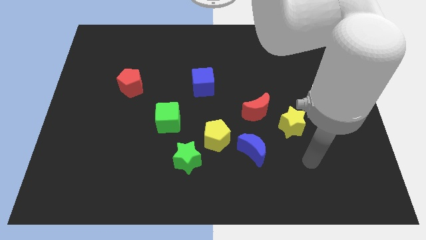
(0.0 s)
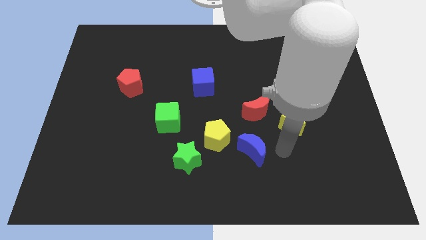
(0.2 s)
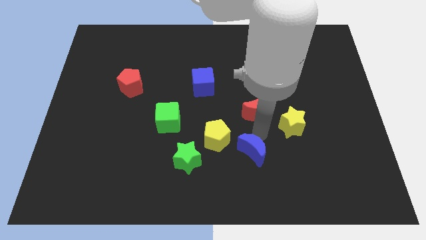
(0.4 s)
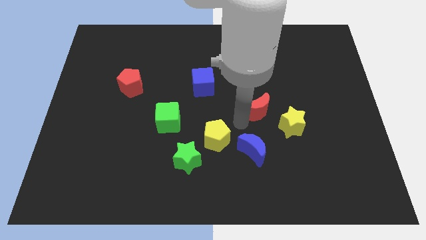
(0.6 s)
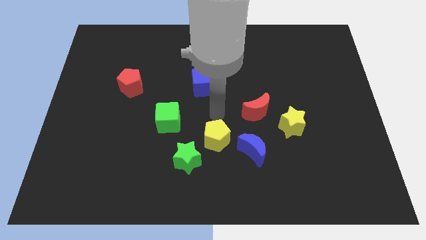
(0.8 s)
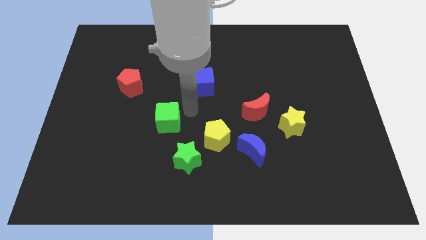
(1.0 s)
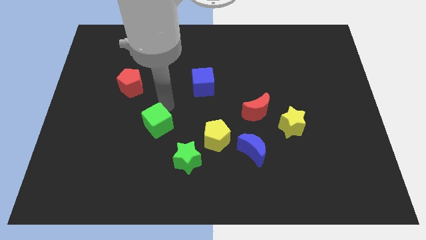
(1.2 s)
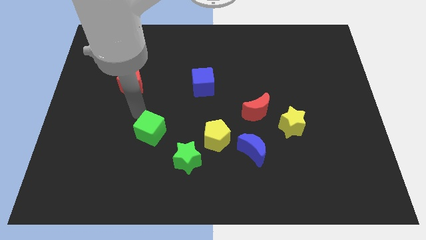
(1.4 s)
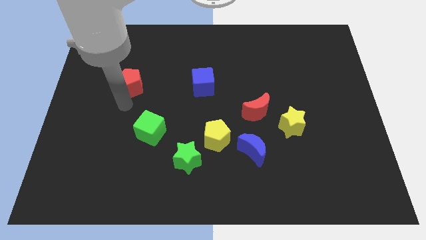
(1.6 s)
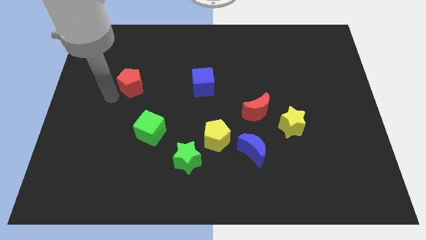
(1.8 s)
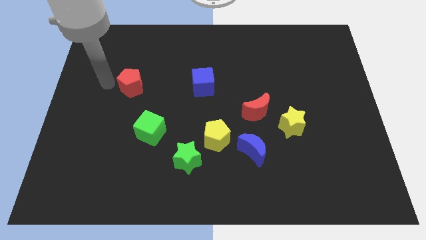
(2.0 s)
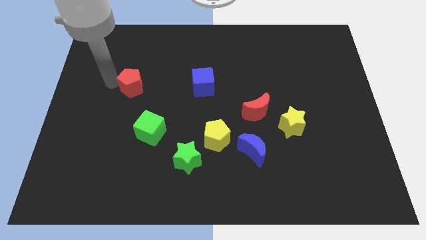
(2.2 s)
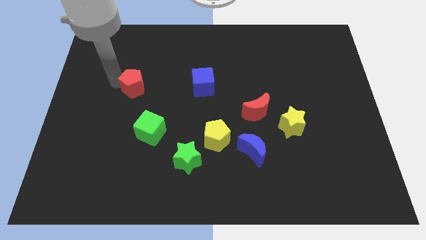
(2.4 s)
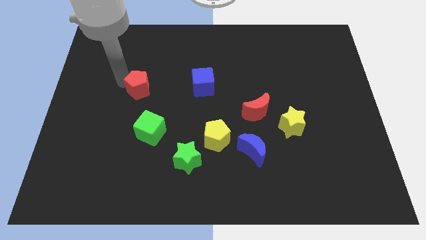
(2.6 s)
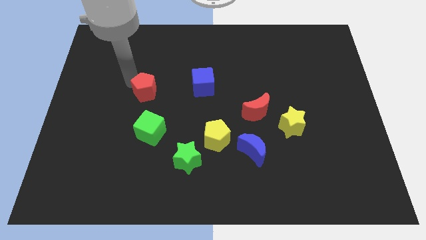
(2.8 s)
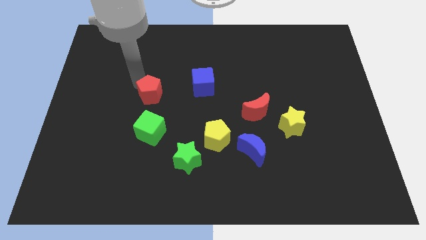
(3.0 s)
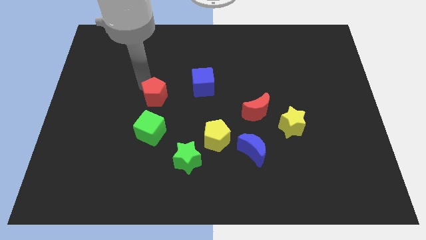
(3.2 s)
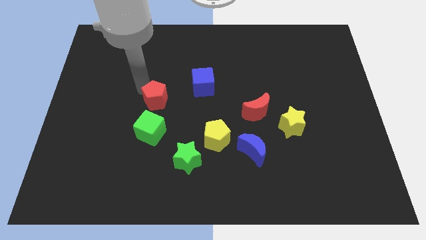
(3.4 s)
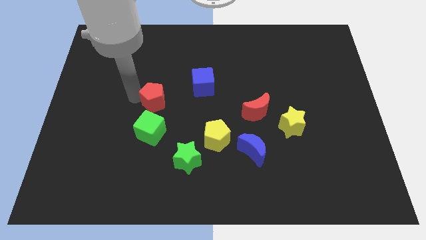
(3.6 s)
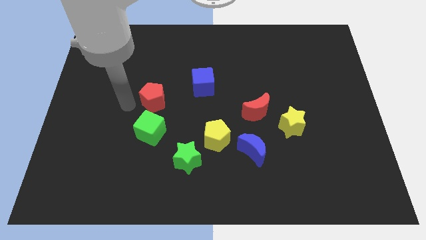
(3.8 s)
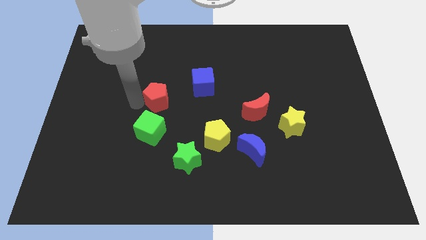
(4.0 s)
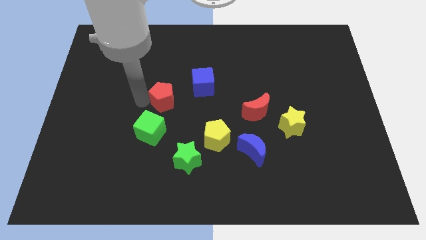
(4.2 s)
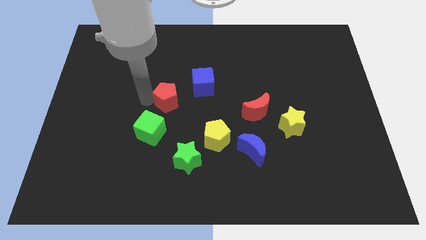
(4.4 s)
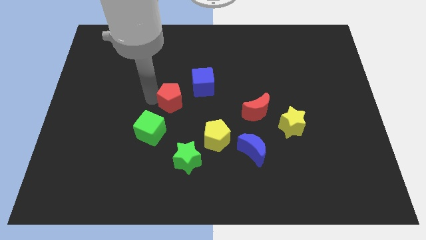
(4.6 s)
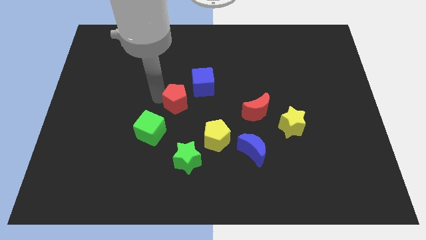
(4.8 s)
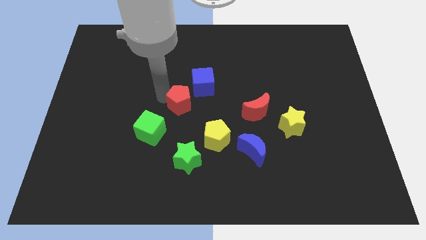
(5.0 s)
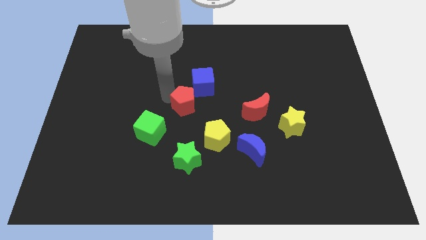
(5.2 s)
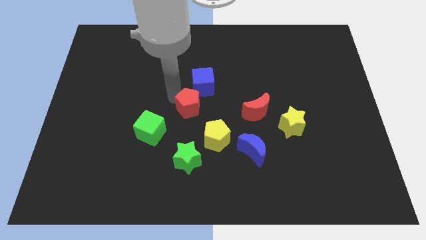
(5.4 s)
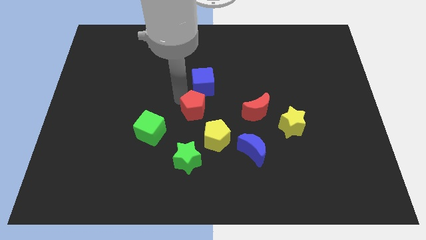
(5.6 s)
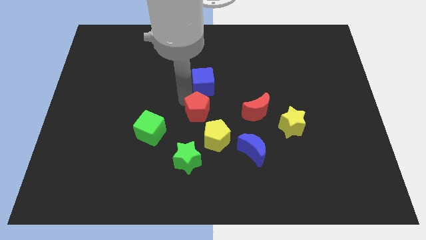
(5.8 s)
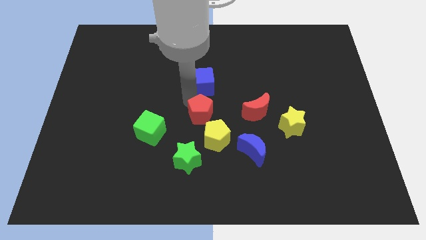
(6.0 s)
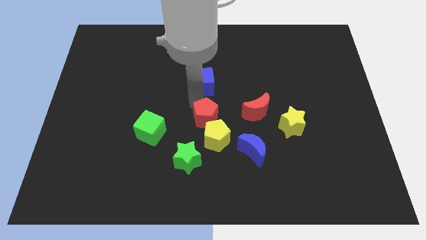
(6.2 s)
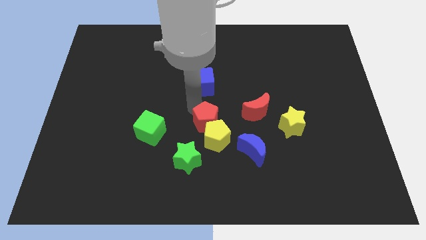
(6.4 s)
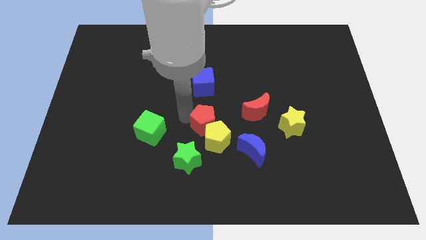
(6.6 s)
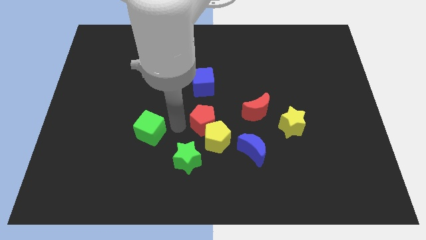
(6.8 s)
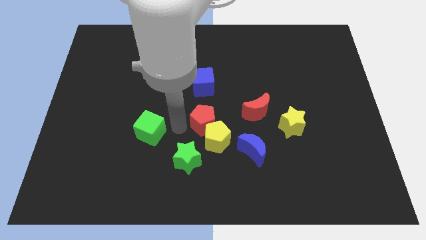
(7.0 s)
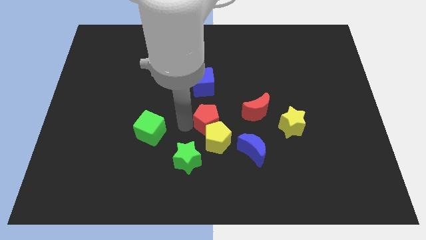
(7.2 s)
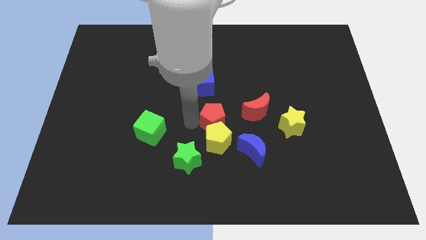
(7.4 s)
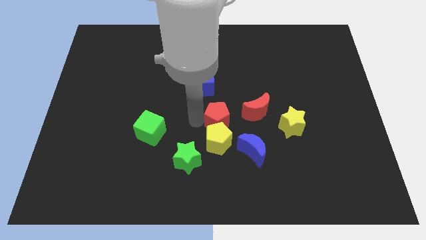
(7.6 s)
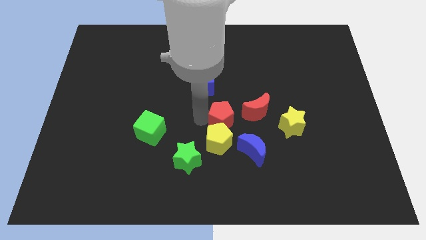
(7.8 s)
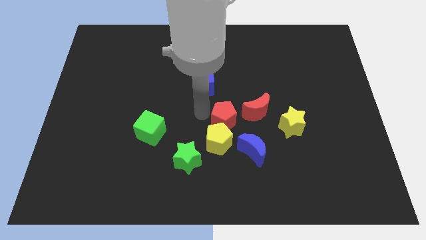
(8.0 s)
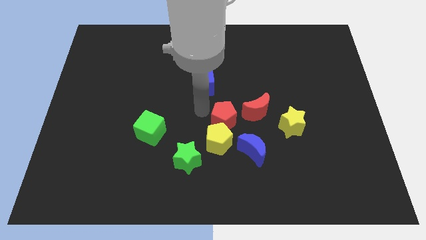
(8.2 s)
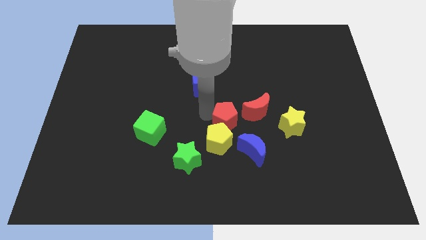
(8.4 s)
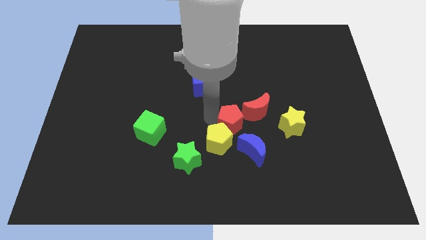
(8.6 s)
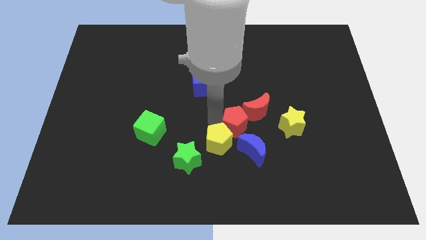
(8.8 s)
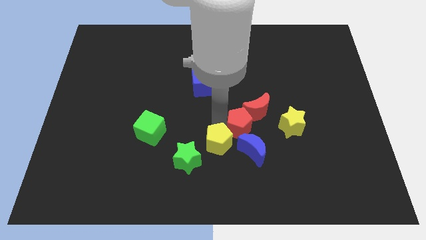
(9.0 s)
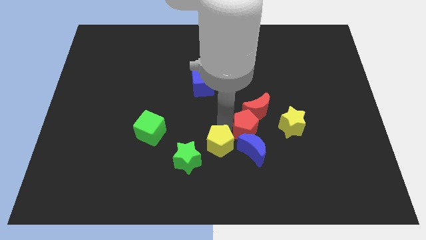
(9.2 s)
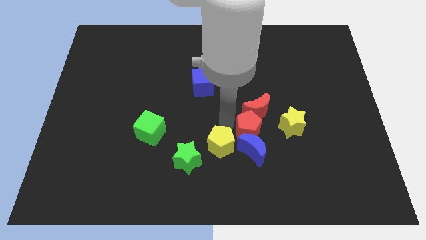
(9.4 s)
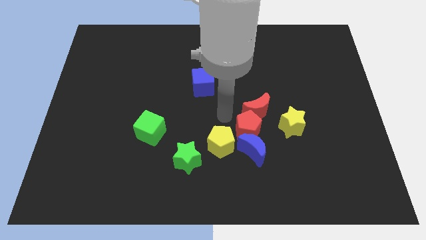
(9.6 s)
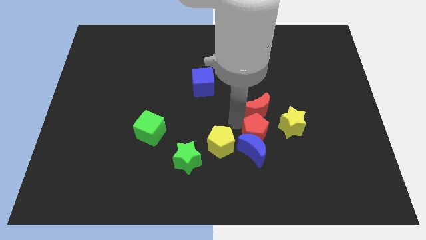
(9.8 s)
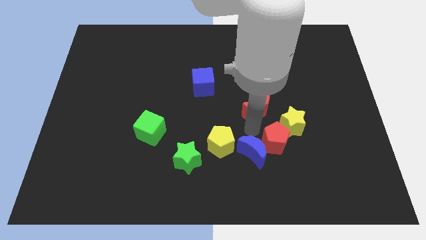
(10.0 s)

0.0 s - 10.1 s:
slide the red pentagon to the bottom of the yellow star

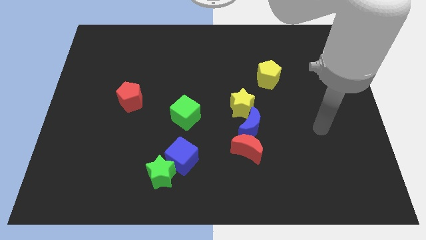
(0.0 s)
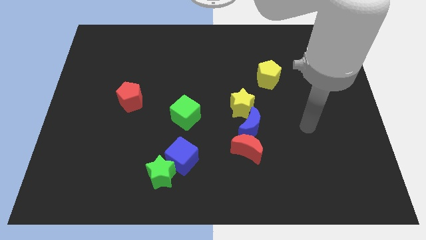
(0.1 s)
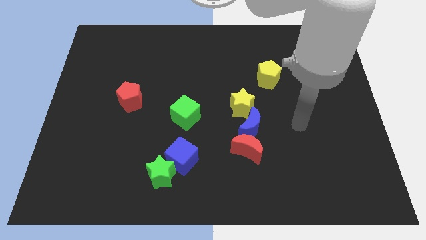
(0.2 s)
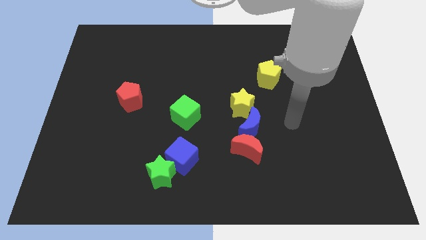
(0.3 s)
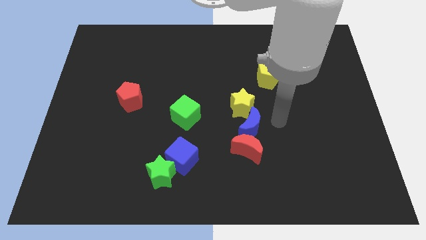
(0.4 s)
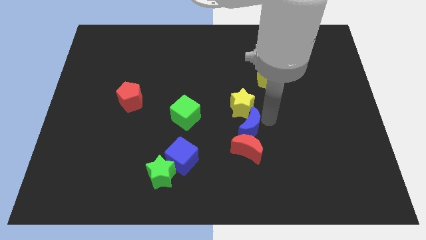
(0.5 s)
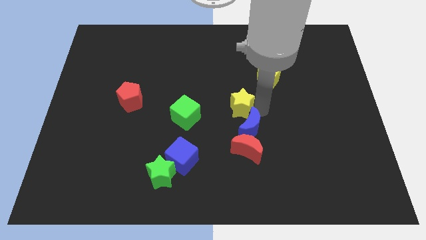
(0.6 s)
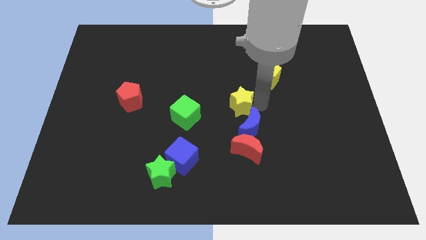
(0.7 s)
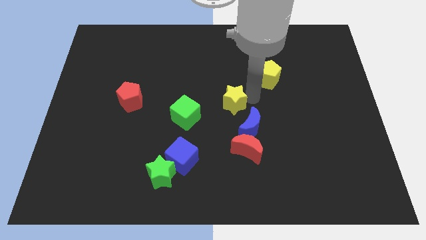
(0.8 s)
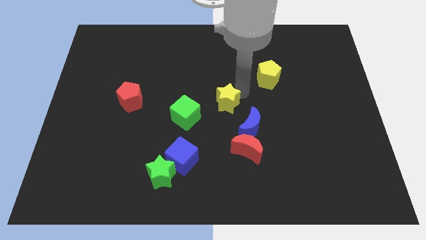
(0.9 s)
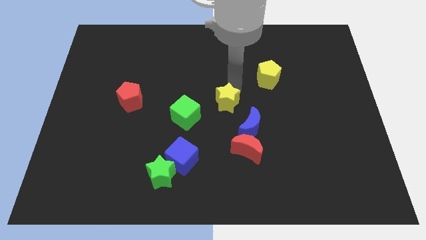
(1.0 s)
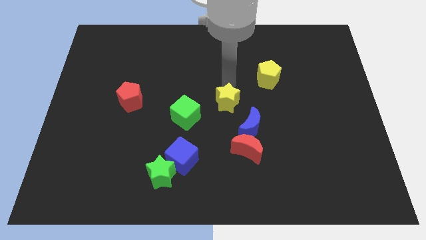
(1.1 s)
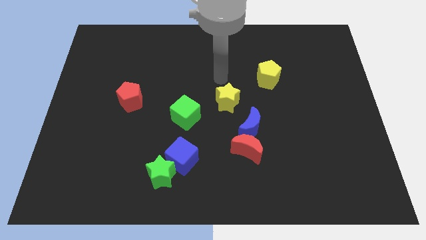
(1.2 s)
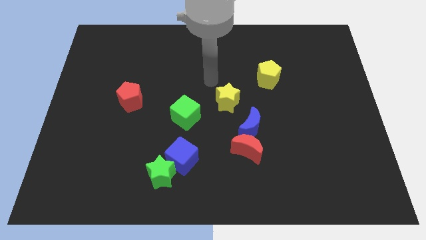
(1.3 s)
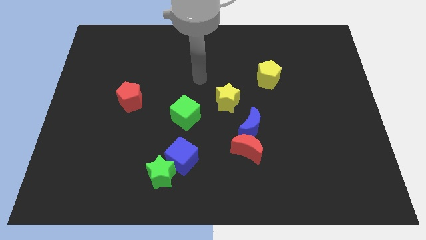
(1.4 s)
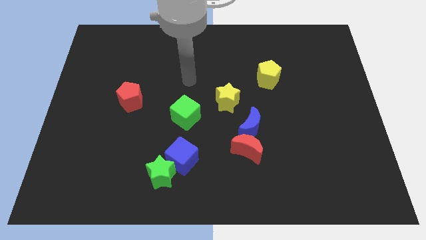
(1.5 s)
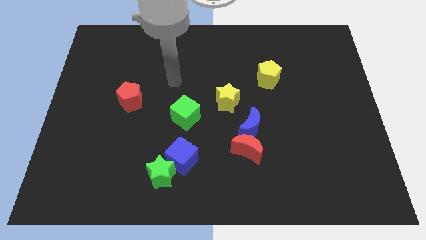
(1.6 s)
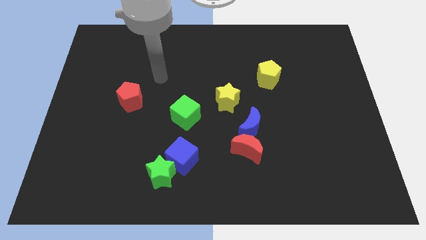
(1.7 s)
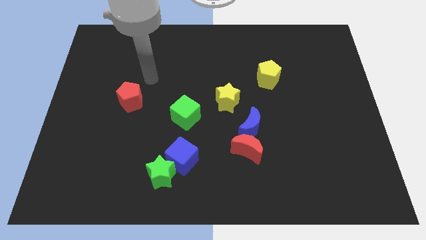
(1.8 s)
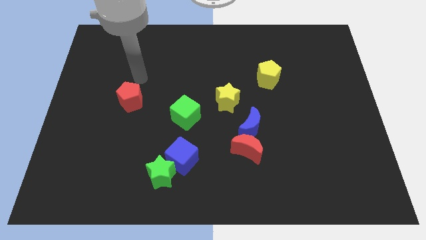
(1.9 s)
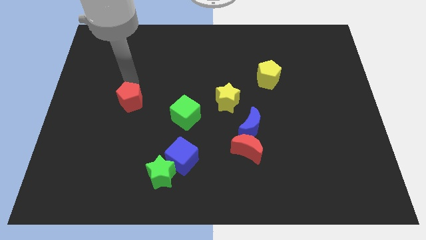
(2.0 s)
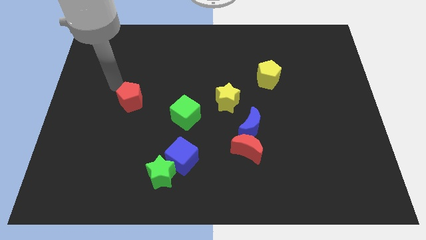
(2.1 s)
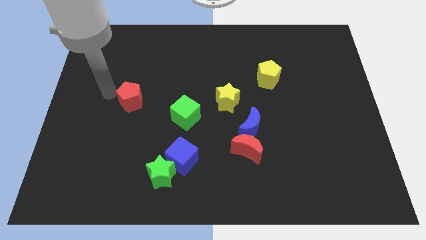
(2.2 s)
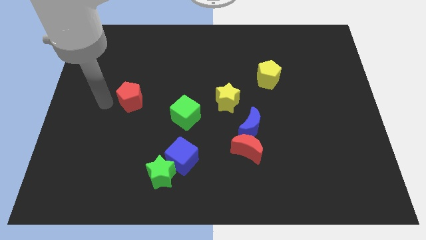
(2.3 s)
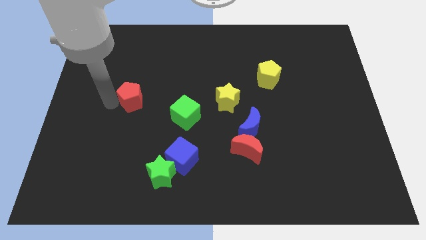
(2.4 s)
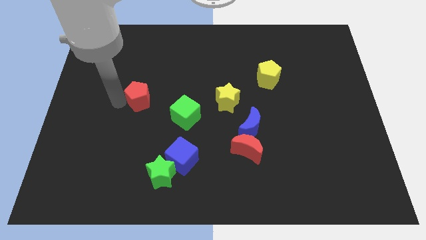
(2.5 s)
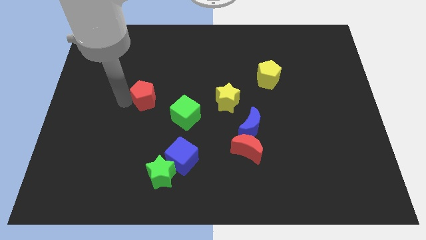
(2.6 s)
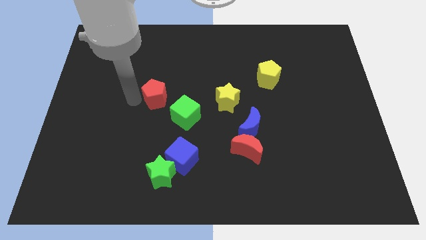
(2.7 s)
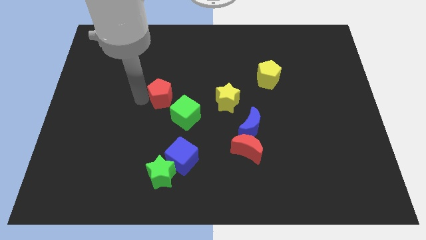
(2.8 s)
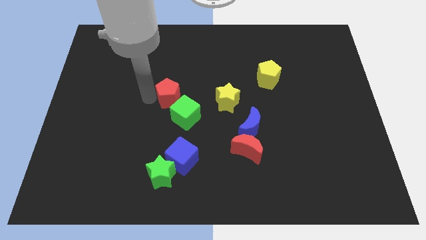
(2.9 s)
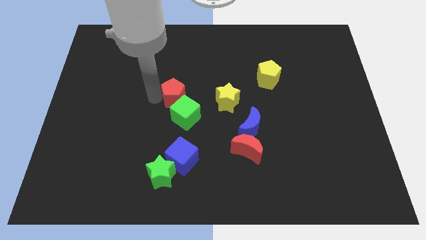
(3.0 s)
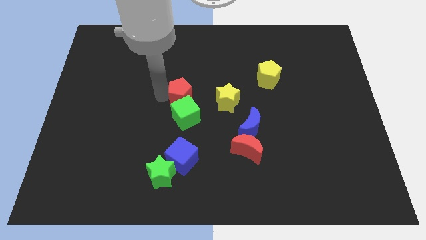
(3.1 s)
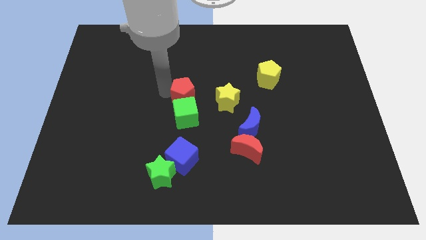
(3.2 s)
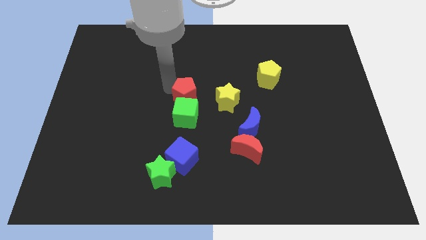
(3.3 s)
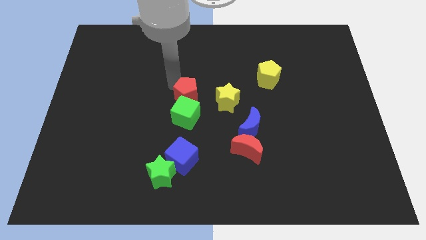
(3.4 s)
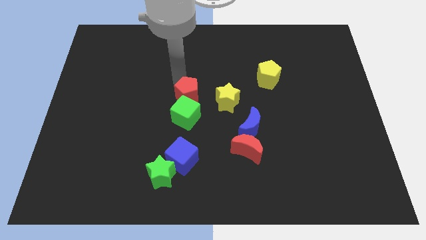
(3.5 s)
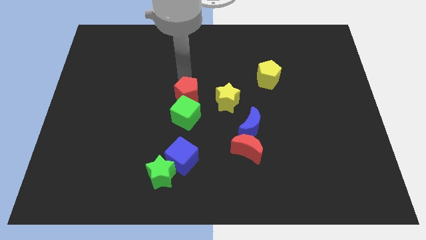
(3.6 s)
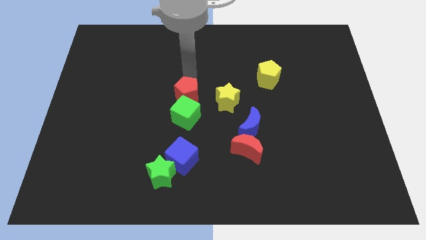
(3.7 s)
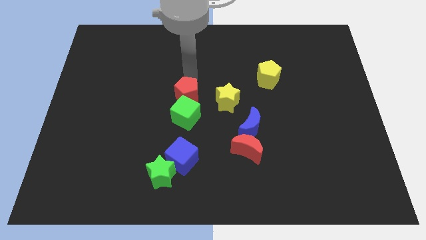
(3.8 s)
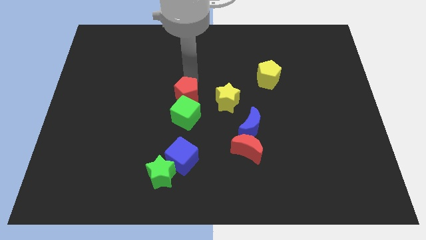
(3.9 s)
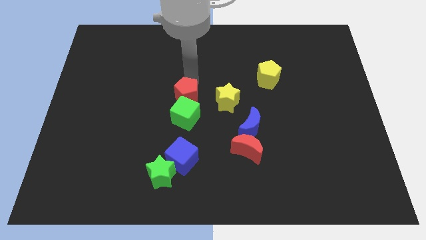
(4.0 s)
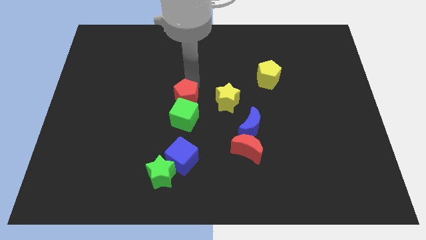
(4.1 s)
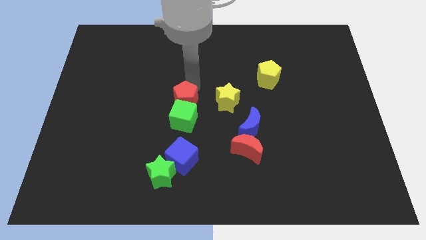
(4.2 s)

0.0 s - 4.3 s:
put the red pentagon to the top side of the blue cube
